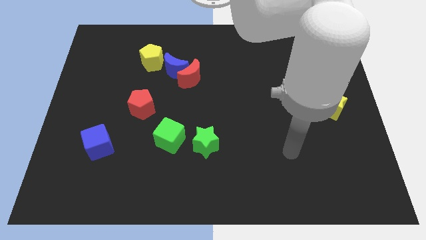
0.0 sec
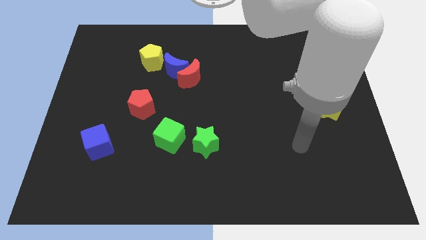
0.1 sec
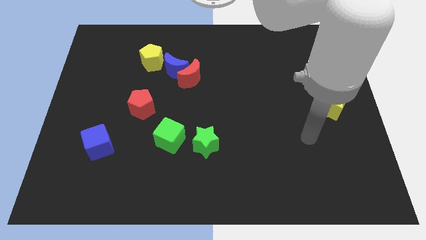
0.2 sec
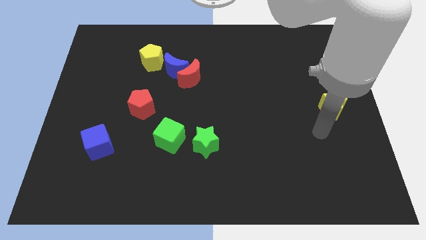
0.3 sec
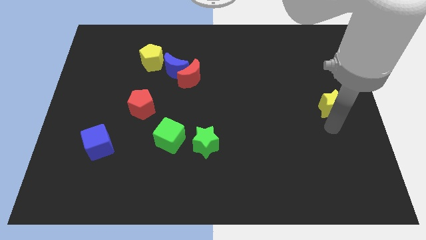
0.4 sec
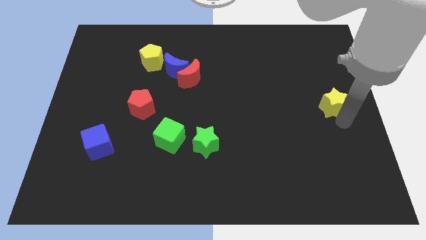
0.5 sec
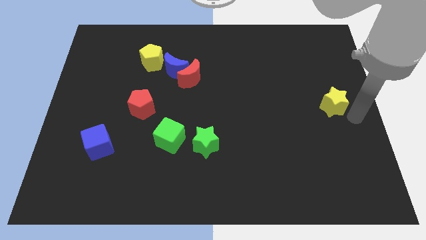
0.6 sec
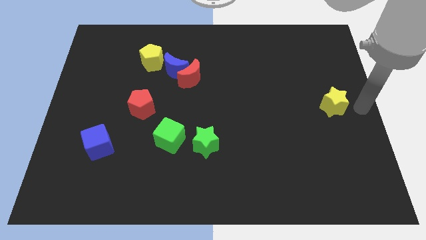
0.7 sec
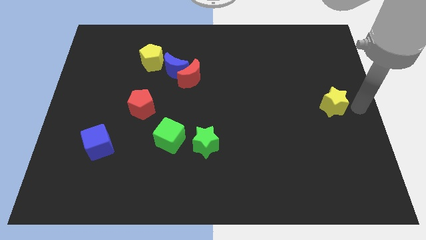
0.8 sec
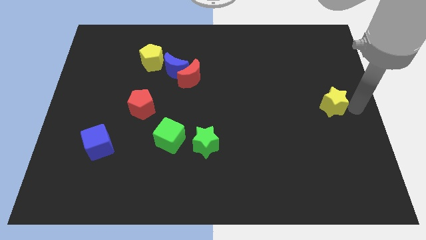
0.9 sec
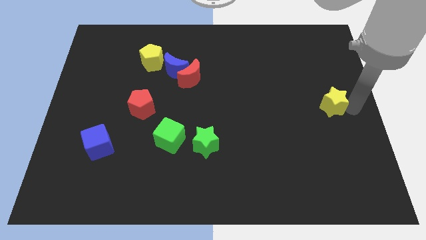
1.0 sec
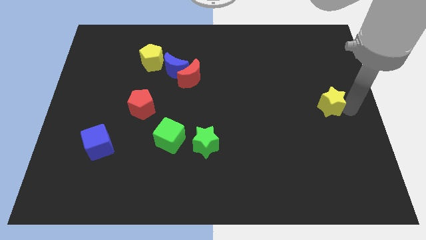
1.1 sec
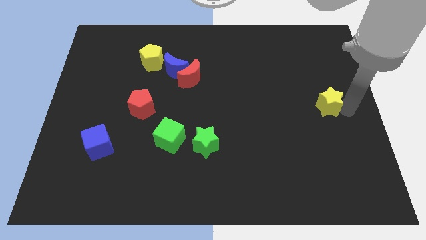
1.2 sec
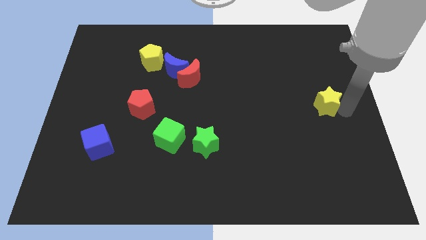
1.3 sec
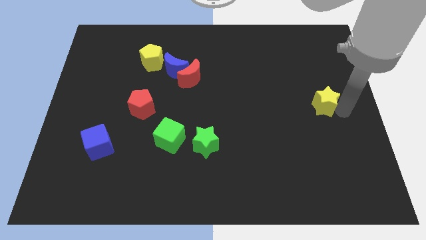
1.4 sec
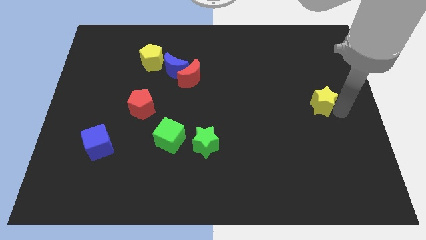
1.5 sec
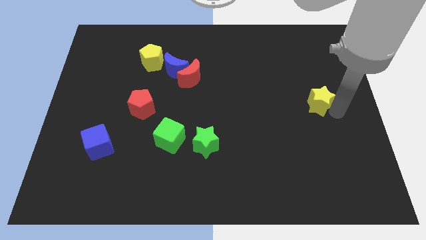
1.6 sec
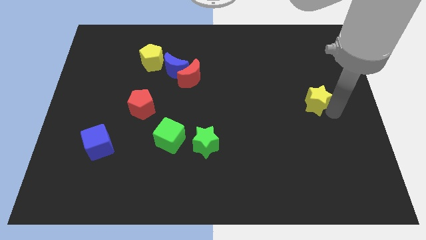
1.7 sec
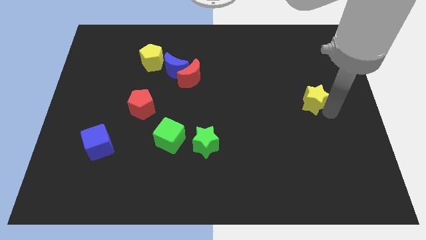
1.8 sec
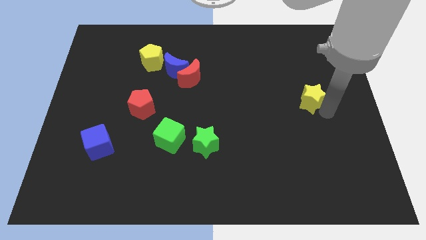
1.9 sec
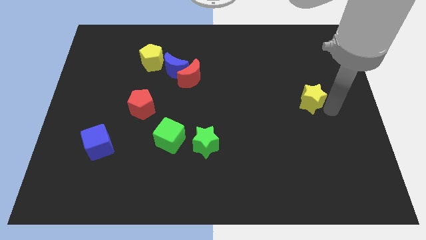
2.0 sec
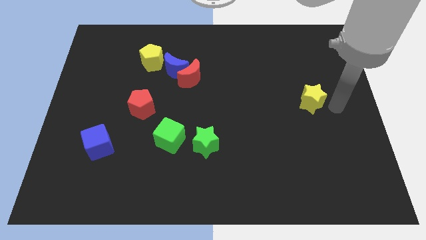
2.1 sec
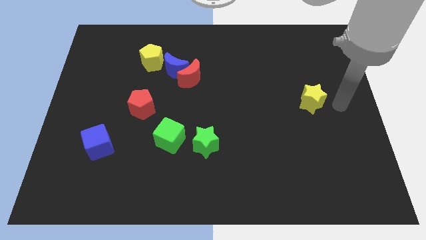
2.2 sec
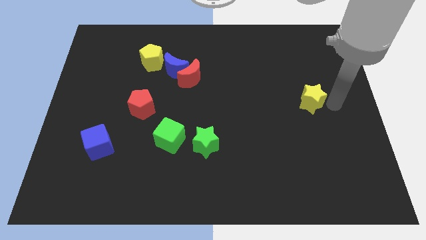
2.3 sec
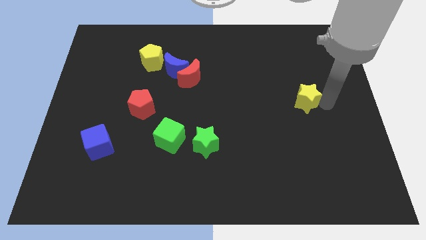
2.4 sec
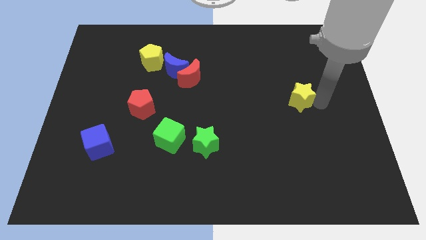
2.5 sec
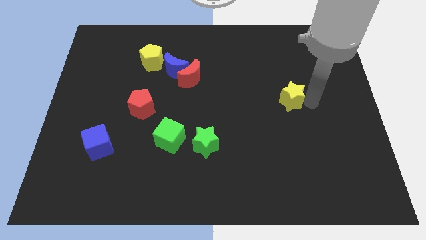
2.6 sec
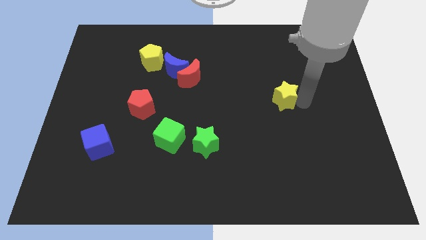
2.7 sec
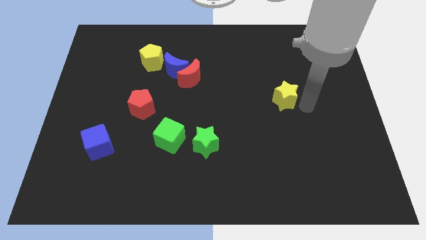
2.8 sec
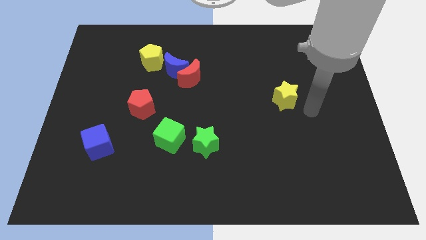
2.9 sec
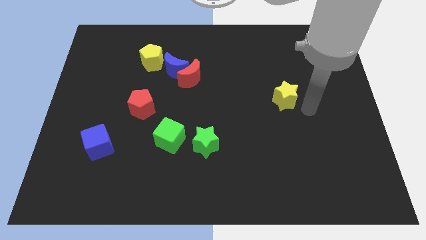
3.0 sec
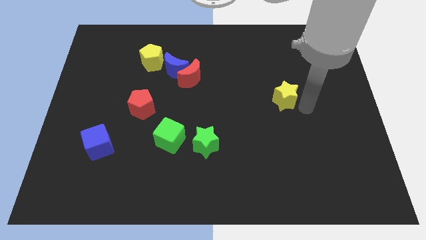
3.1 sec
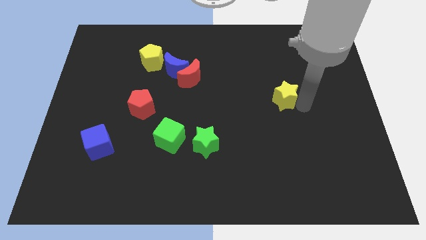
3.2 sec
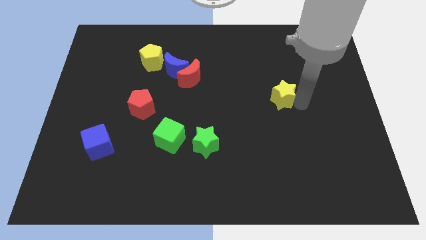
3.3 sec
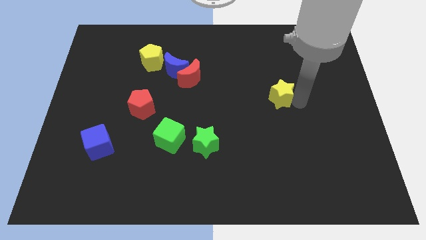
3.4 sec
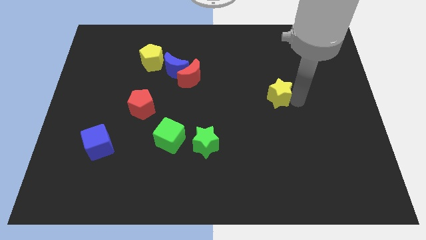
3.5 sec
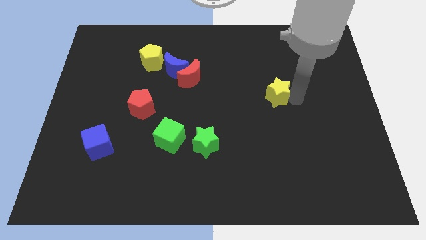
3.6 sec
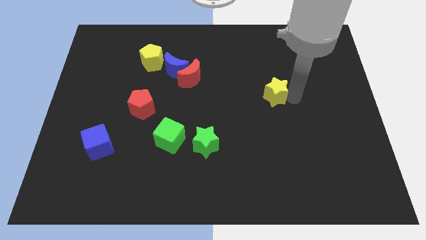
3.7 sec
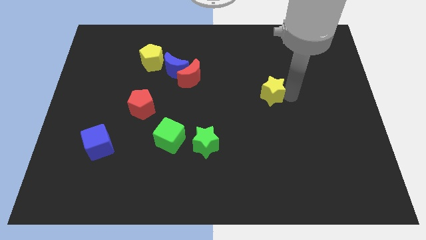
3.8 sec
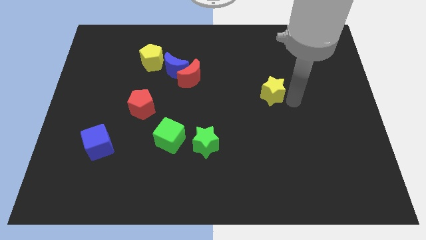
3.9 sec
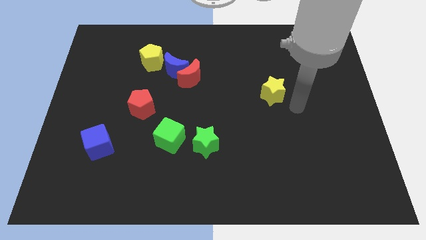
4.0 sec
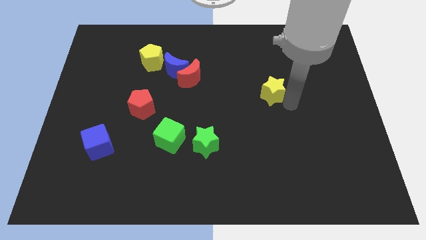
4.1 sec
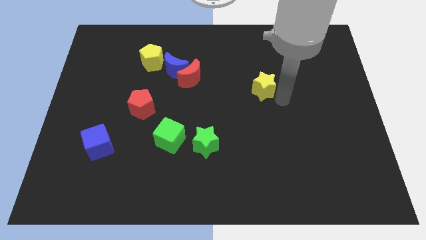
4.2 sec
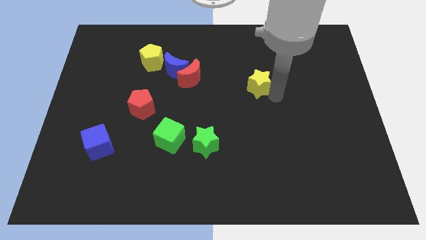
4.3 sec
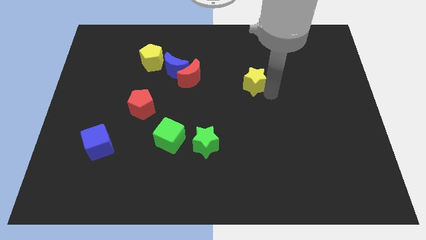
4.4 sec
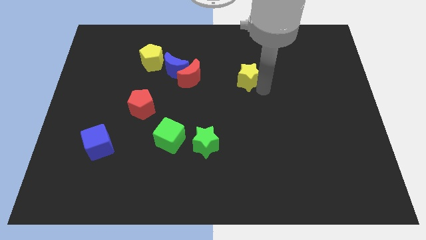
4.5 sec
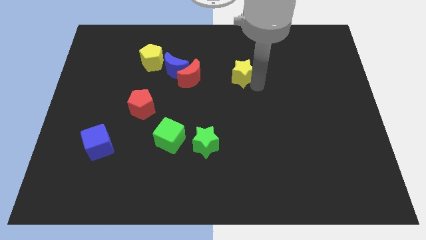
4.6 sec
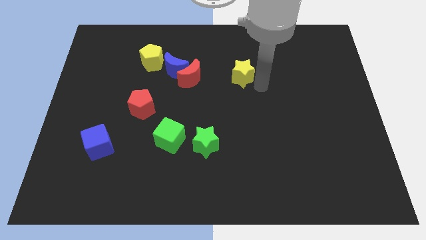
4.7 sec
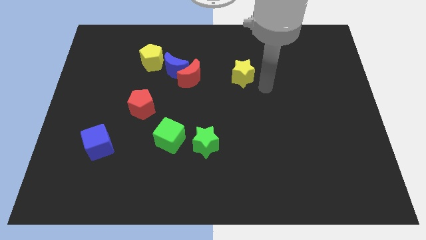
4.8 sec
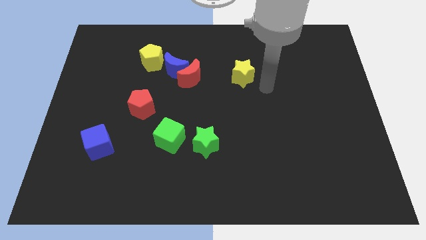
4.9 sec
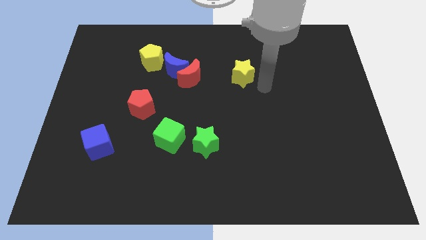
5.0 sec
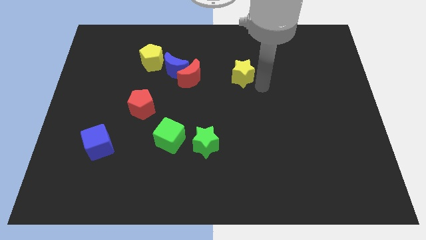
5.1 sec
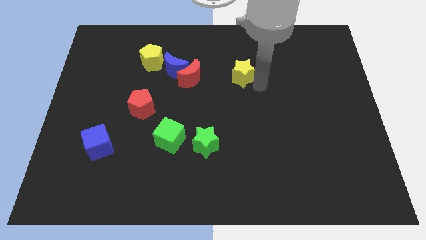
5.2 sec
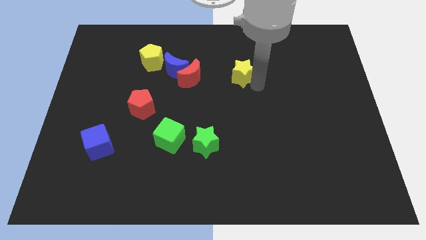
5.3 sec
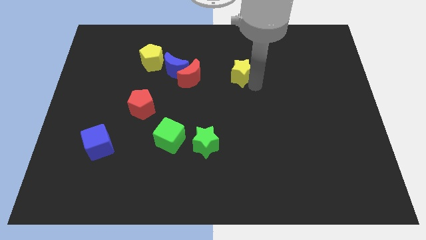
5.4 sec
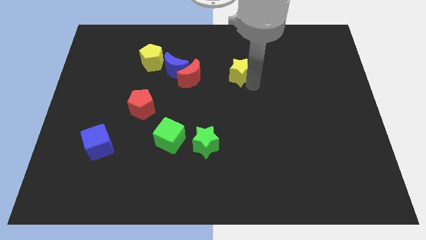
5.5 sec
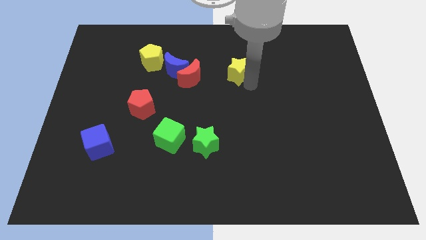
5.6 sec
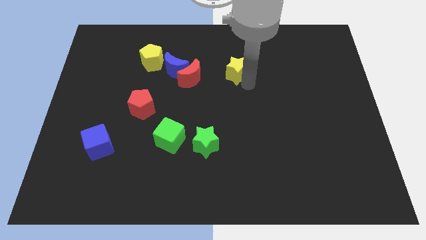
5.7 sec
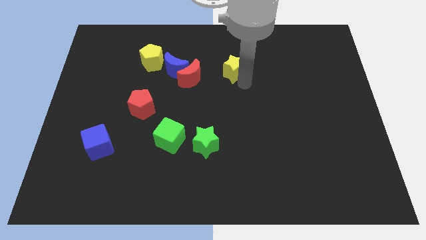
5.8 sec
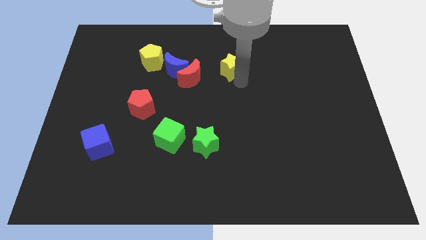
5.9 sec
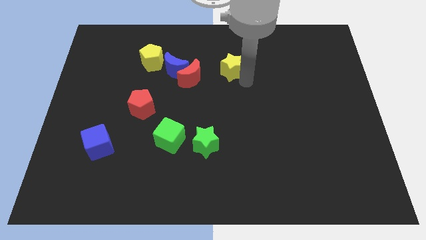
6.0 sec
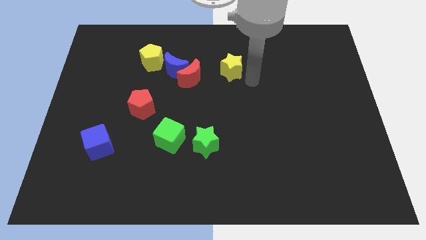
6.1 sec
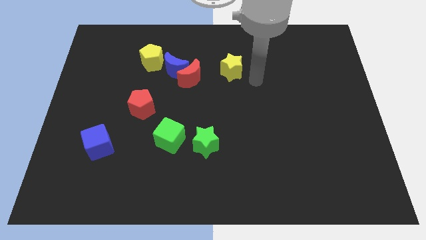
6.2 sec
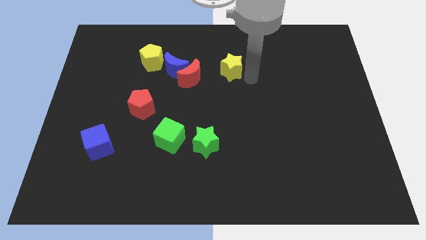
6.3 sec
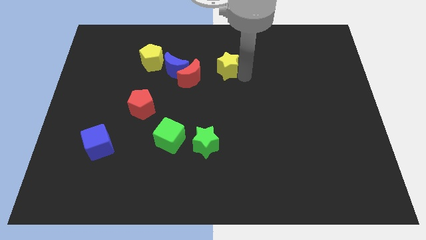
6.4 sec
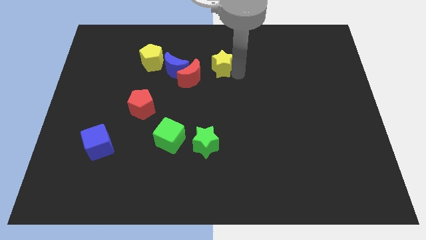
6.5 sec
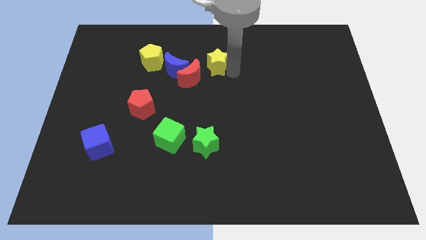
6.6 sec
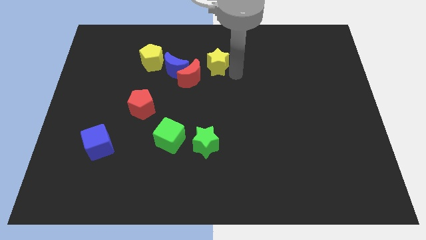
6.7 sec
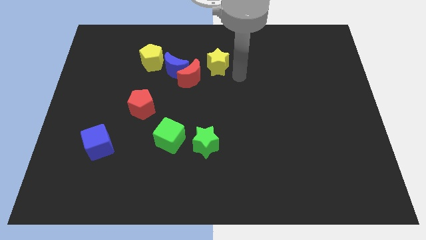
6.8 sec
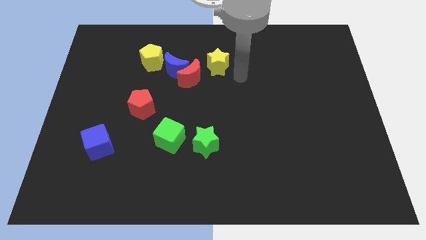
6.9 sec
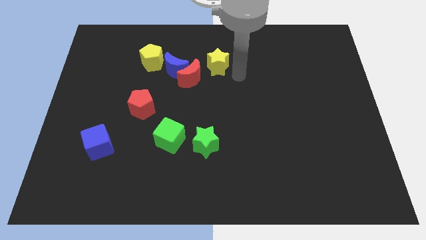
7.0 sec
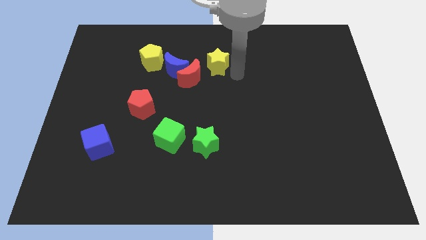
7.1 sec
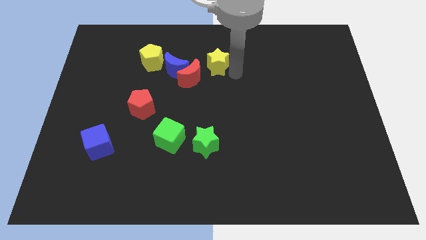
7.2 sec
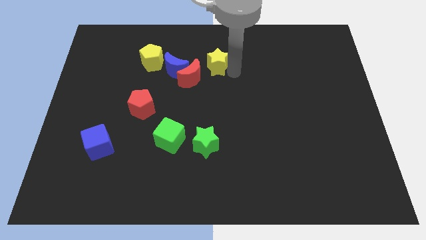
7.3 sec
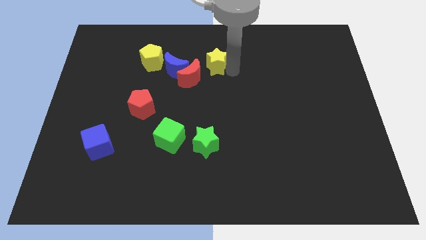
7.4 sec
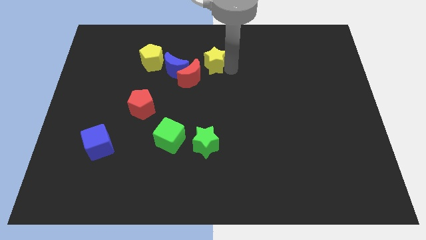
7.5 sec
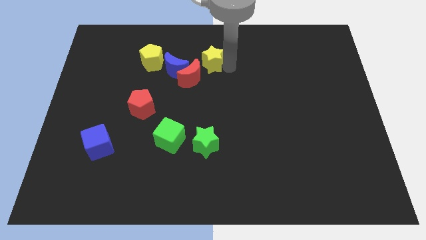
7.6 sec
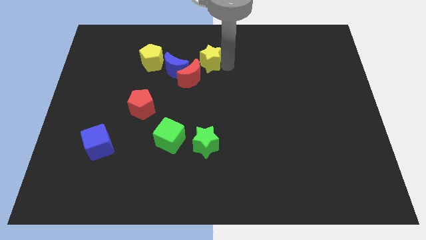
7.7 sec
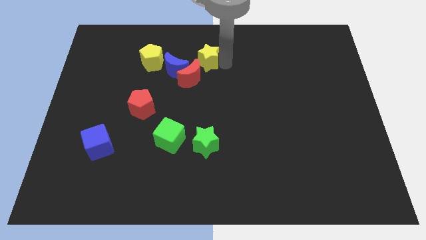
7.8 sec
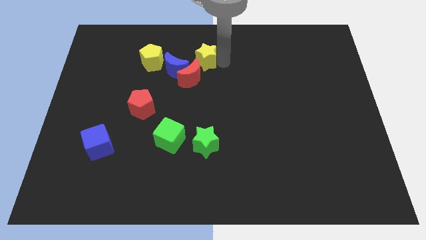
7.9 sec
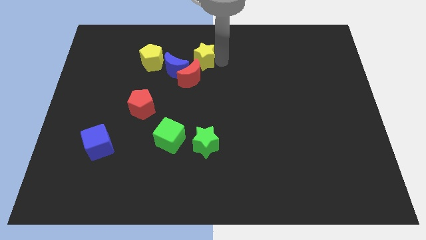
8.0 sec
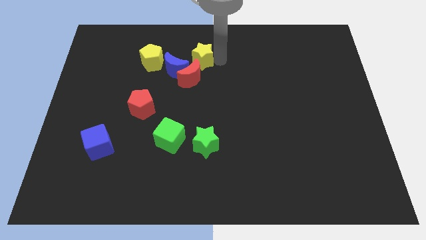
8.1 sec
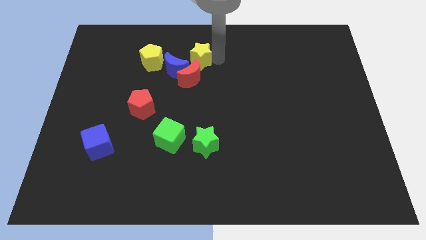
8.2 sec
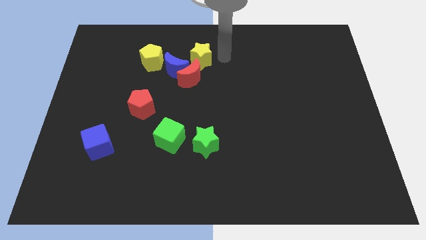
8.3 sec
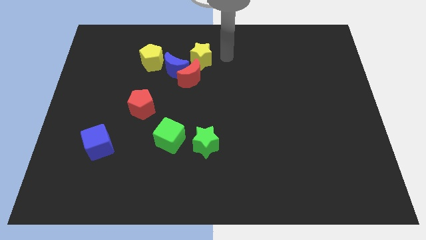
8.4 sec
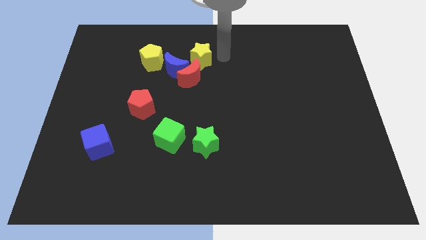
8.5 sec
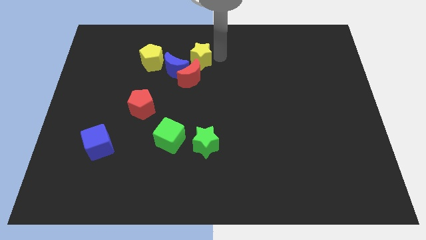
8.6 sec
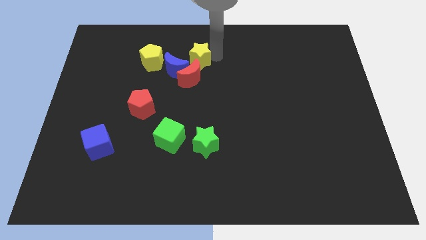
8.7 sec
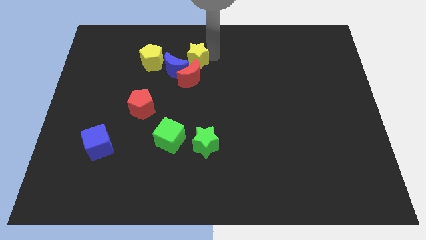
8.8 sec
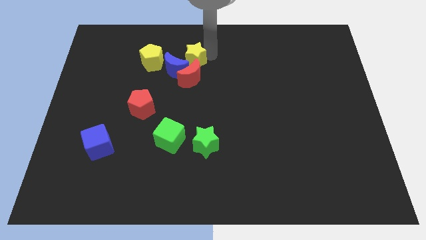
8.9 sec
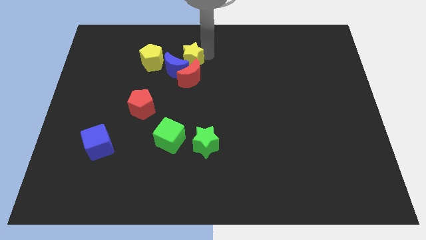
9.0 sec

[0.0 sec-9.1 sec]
push the yellow star to the top left side of the red moon
